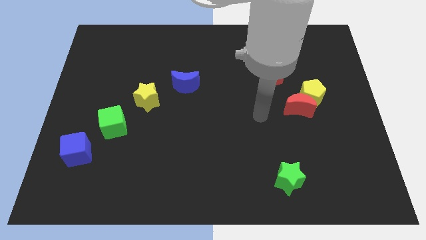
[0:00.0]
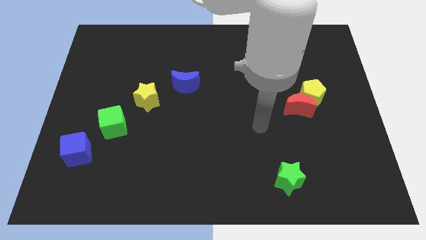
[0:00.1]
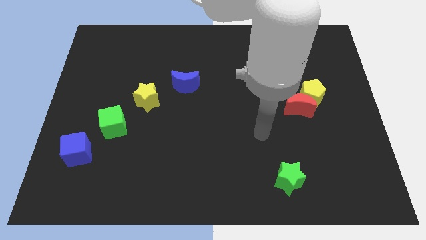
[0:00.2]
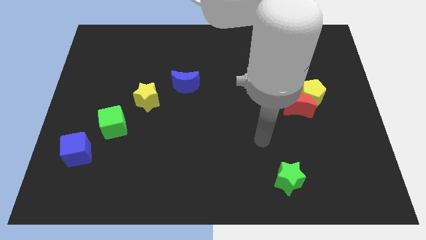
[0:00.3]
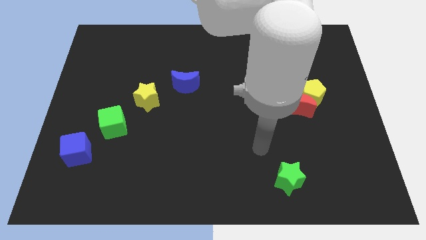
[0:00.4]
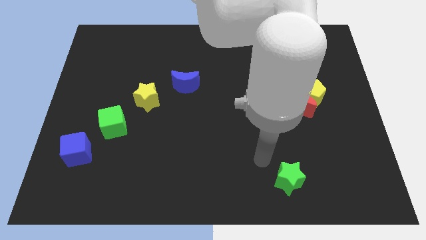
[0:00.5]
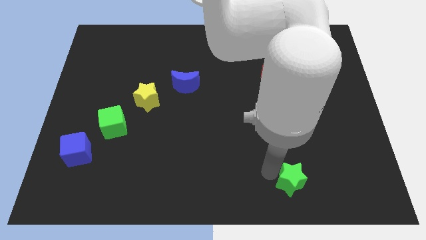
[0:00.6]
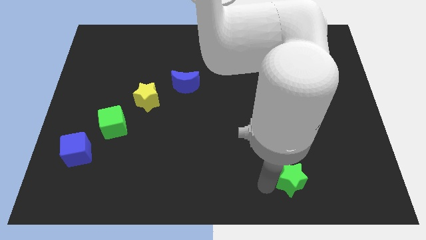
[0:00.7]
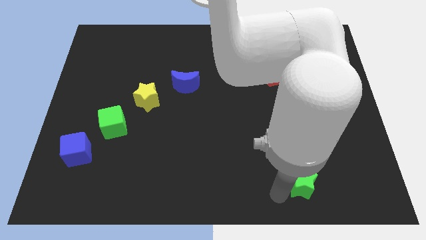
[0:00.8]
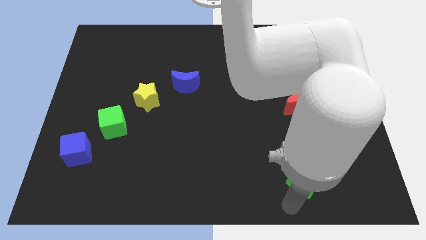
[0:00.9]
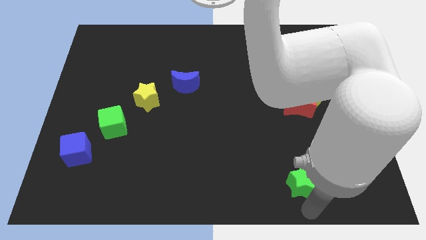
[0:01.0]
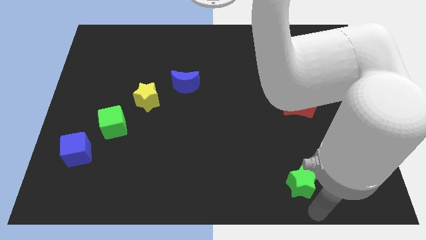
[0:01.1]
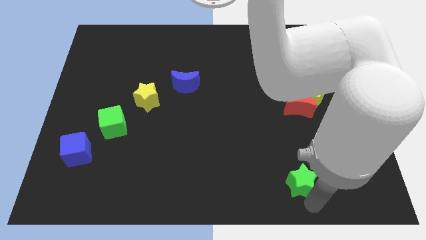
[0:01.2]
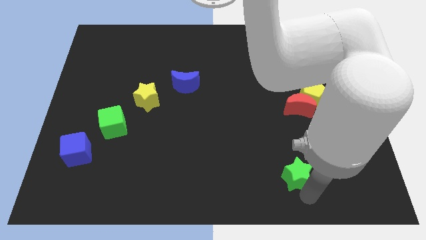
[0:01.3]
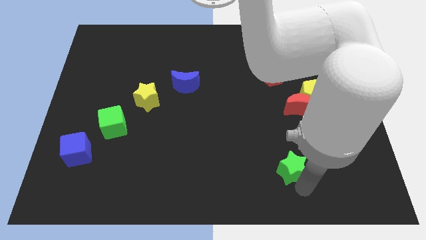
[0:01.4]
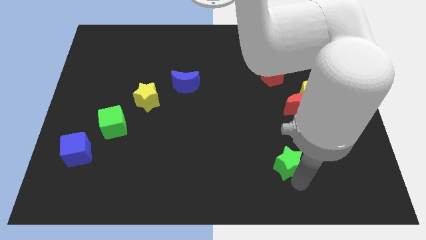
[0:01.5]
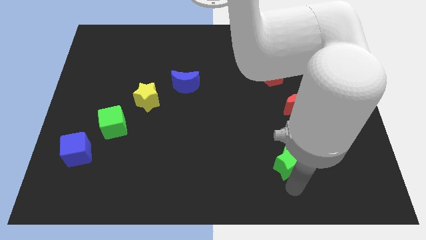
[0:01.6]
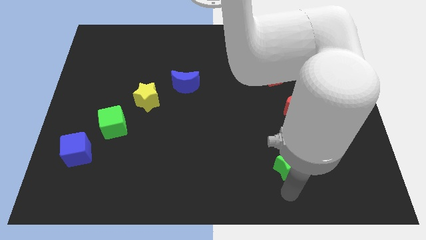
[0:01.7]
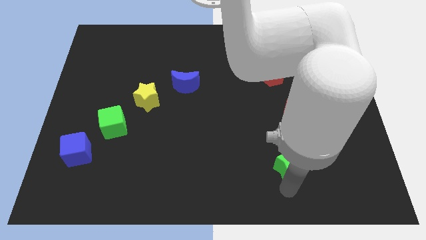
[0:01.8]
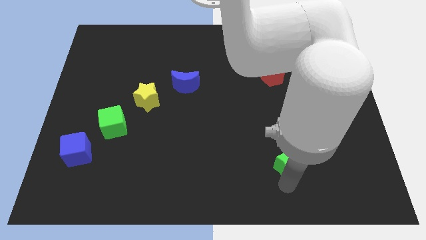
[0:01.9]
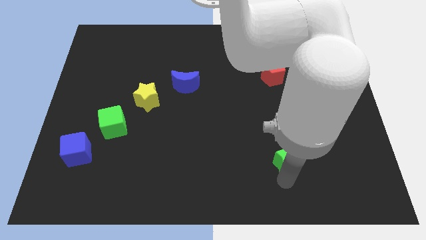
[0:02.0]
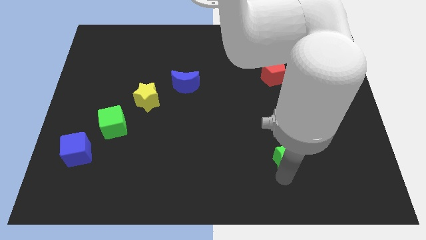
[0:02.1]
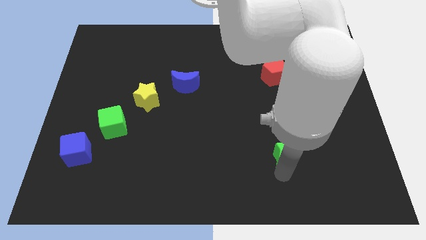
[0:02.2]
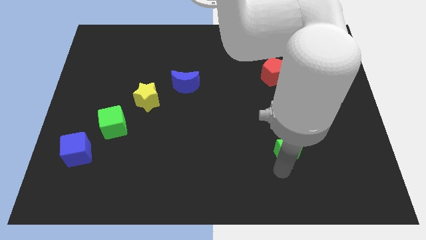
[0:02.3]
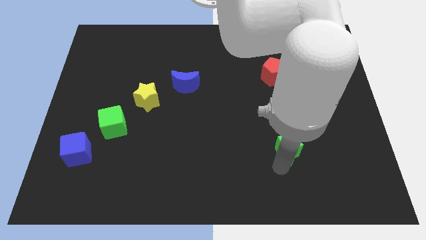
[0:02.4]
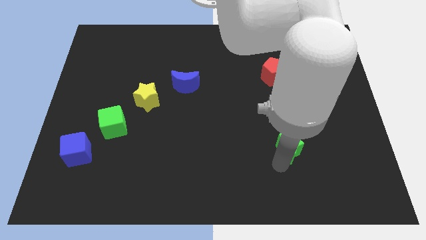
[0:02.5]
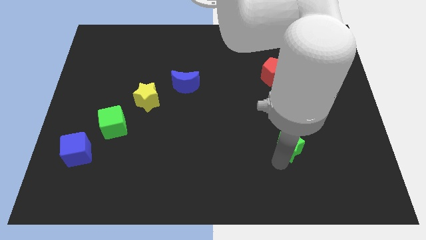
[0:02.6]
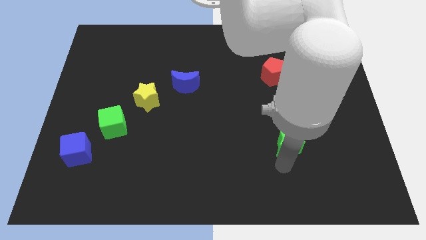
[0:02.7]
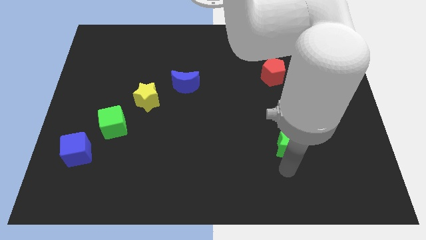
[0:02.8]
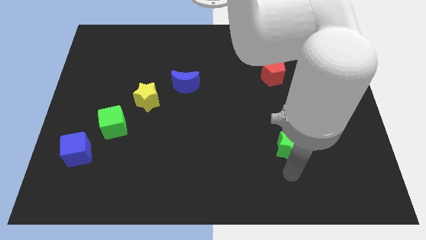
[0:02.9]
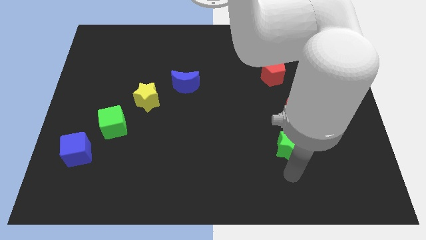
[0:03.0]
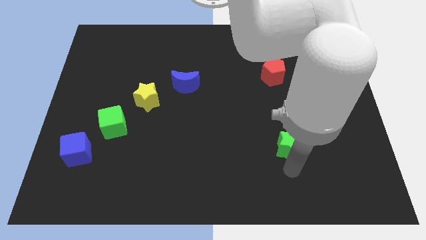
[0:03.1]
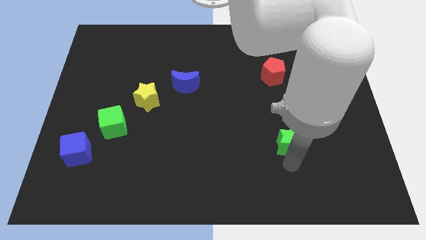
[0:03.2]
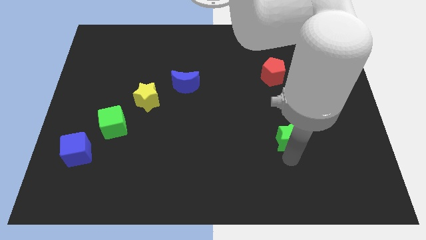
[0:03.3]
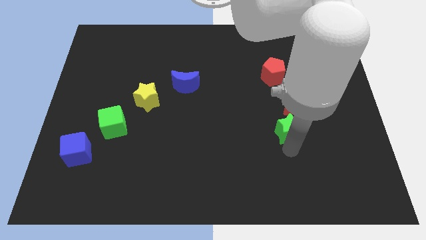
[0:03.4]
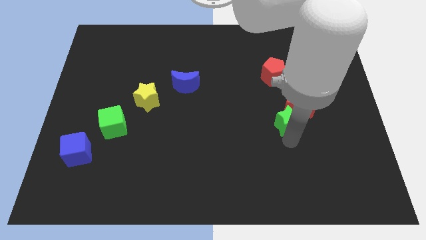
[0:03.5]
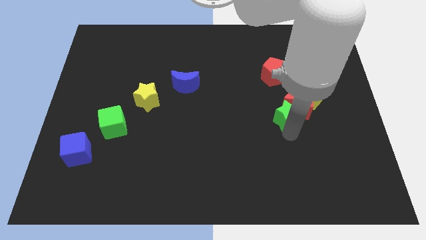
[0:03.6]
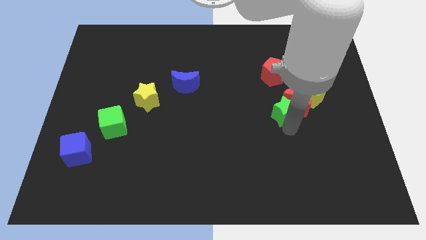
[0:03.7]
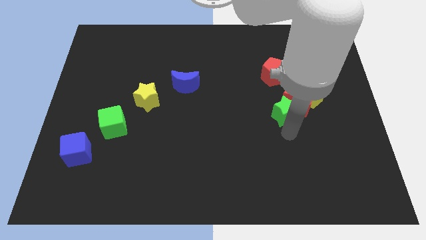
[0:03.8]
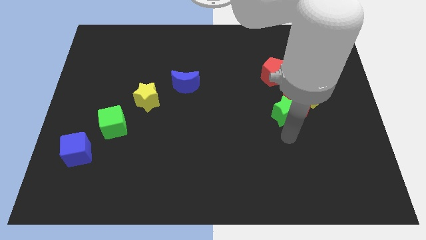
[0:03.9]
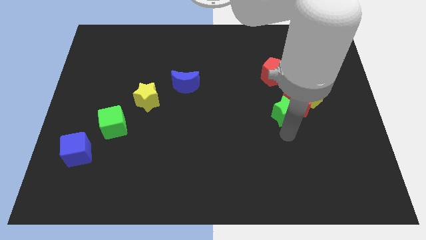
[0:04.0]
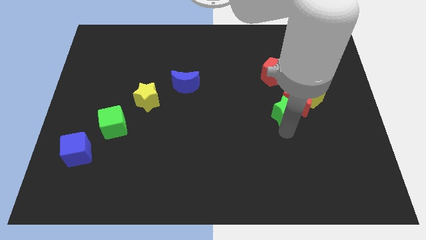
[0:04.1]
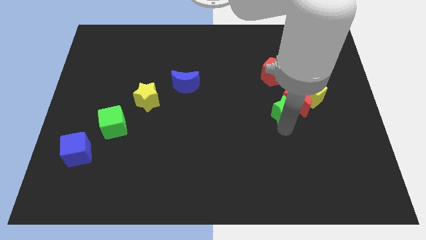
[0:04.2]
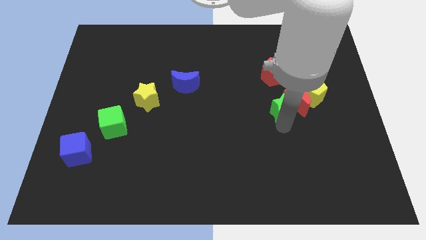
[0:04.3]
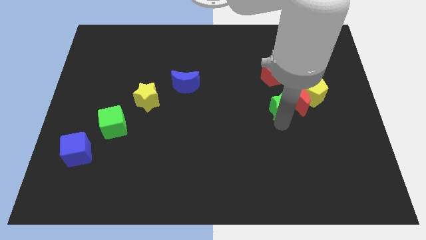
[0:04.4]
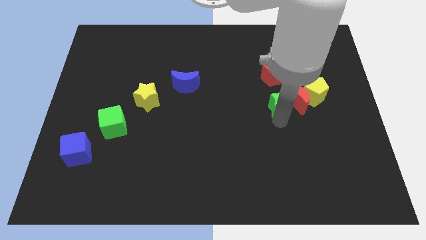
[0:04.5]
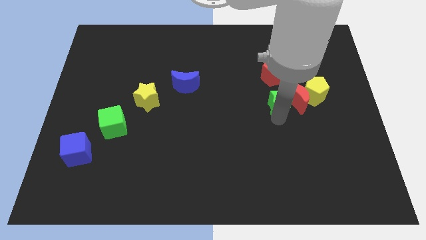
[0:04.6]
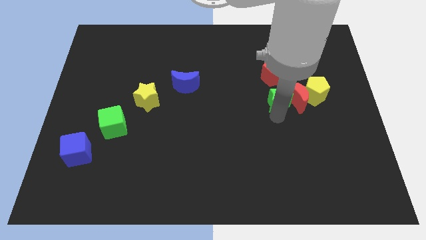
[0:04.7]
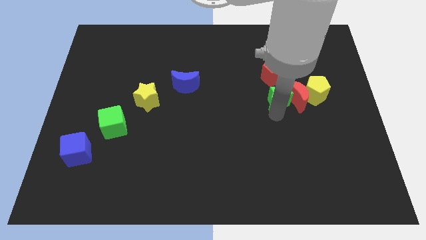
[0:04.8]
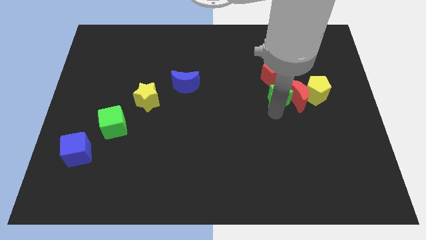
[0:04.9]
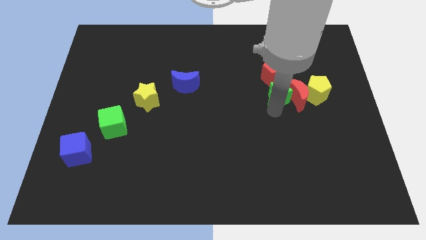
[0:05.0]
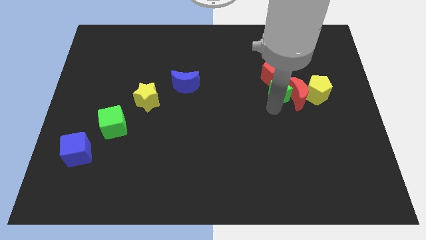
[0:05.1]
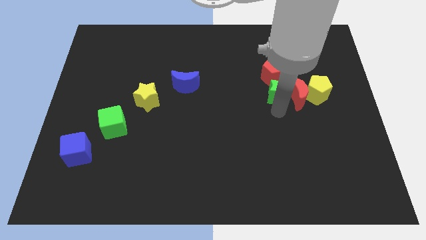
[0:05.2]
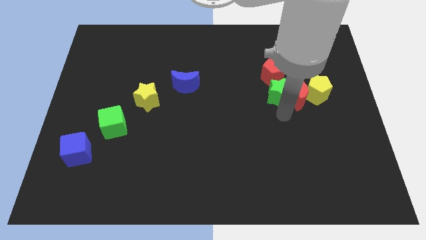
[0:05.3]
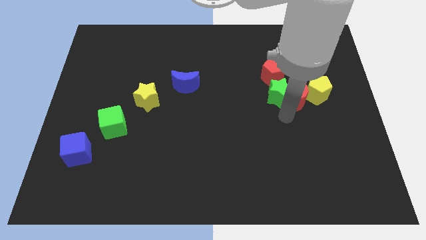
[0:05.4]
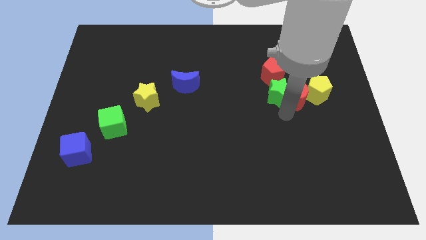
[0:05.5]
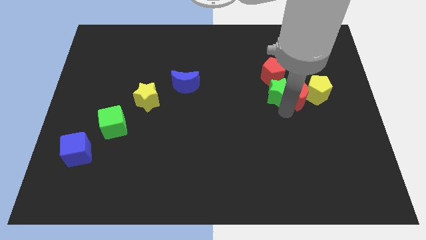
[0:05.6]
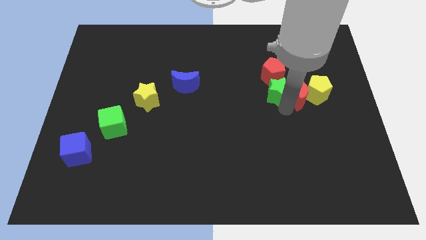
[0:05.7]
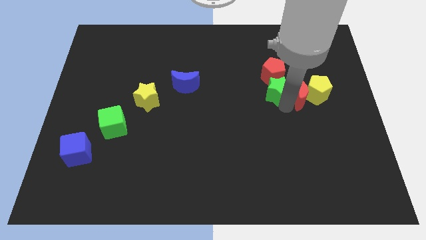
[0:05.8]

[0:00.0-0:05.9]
push the green star to the red pentagon

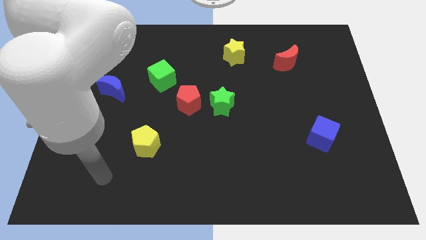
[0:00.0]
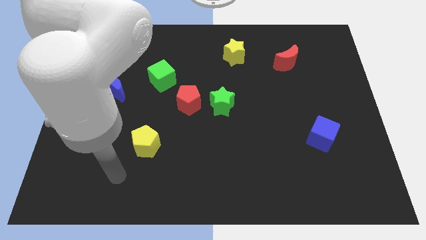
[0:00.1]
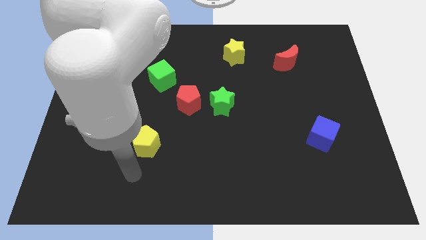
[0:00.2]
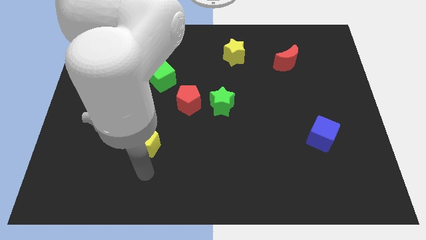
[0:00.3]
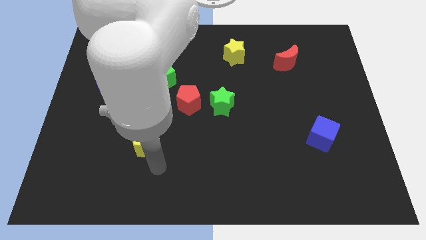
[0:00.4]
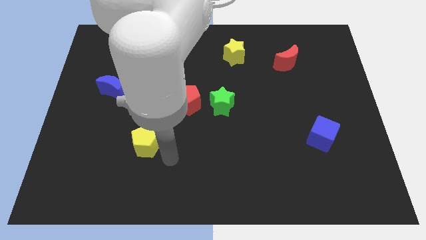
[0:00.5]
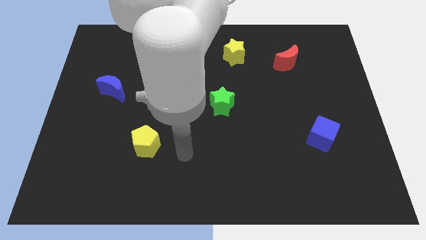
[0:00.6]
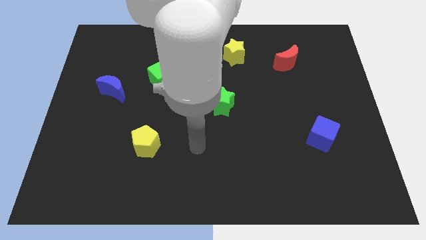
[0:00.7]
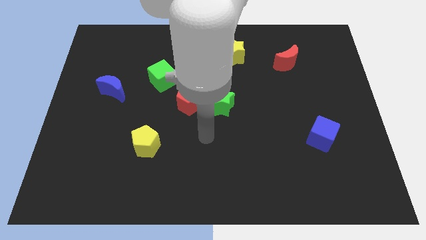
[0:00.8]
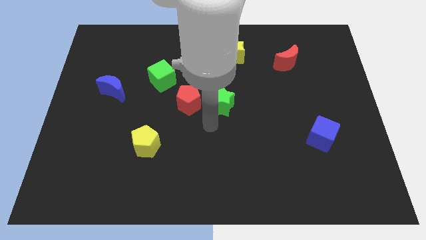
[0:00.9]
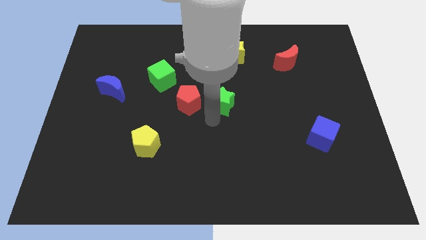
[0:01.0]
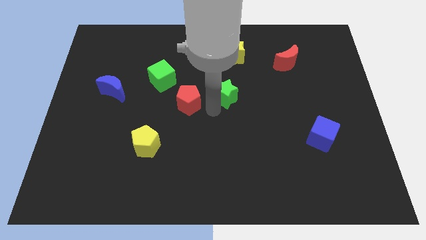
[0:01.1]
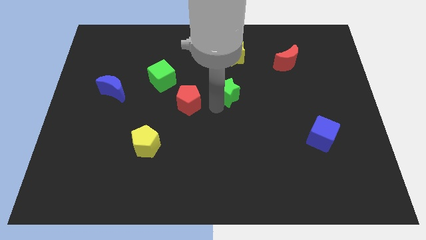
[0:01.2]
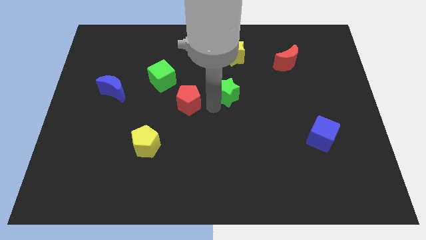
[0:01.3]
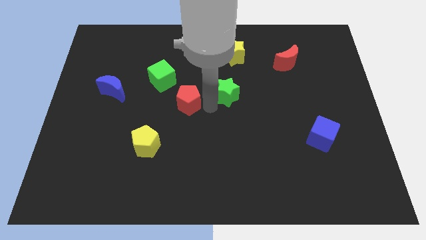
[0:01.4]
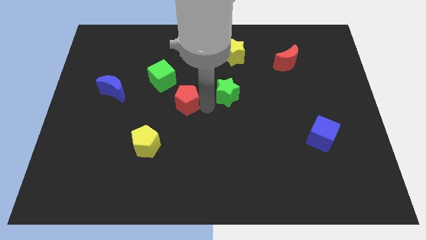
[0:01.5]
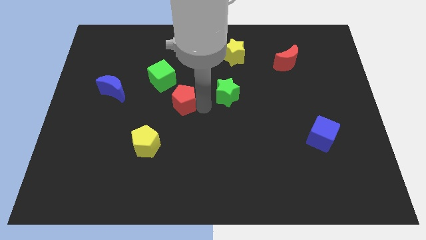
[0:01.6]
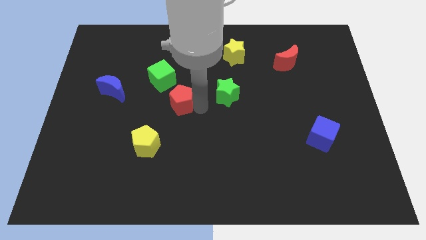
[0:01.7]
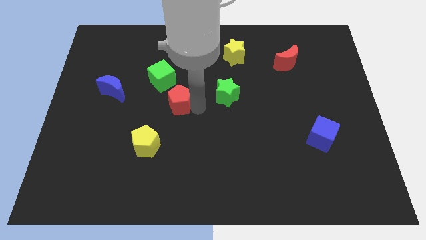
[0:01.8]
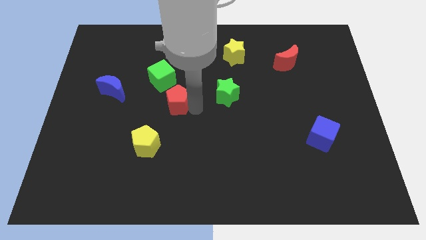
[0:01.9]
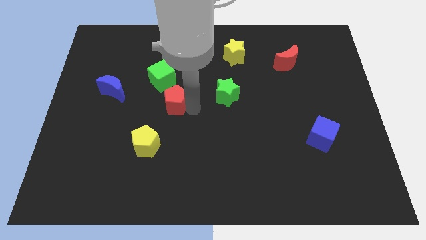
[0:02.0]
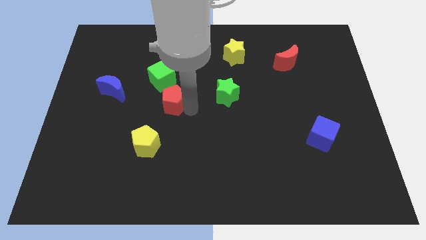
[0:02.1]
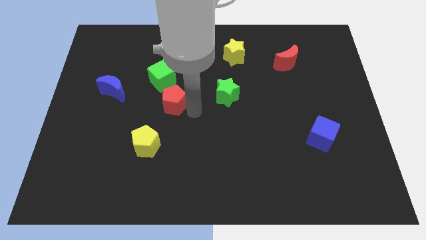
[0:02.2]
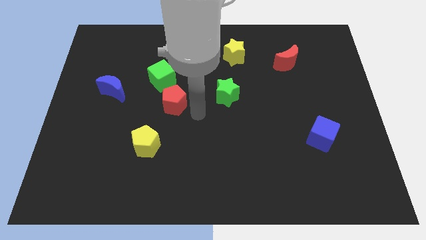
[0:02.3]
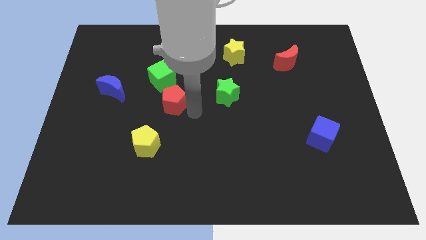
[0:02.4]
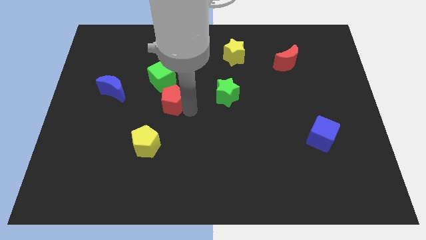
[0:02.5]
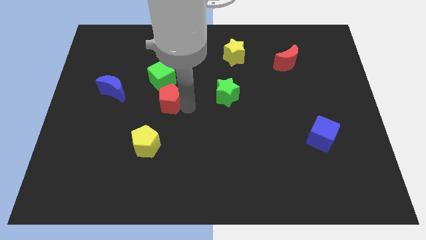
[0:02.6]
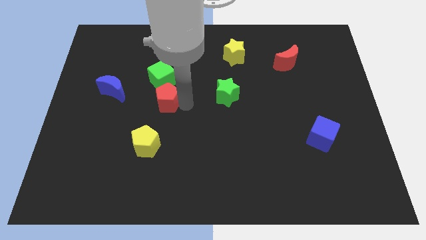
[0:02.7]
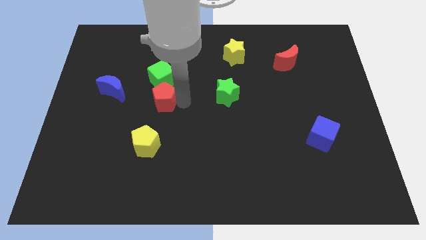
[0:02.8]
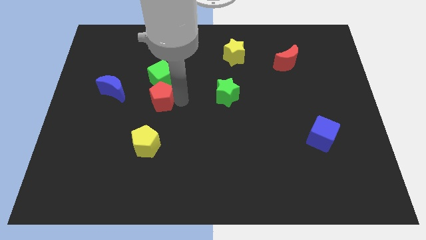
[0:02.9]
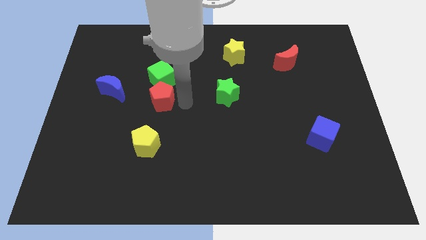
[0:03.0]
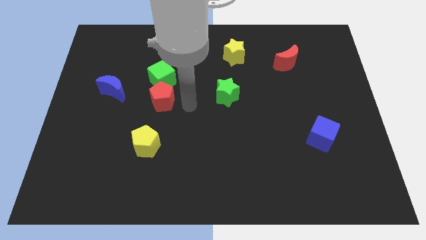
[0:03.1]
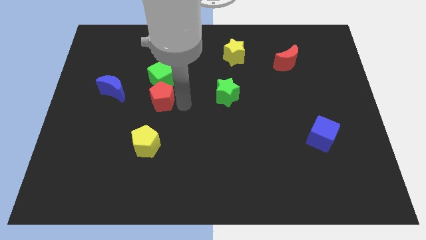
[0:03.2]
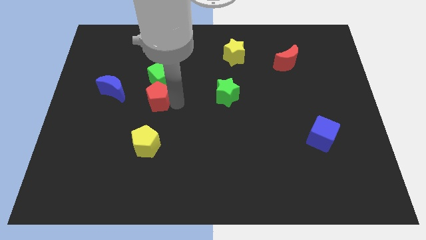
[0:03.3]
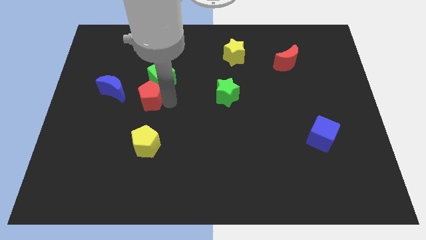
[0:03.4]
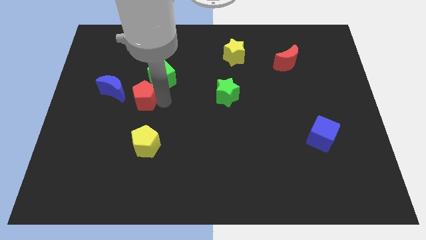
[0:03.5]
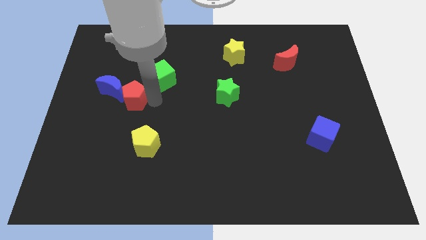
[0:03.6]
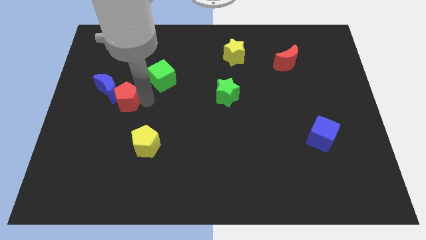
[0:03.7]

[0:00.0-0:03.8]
move the red pentagon close to the blue moon
